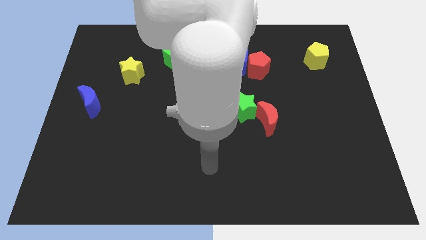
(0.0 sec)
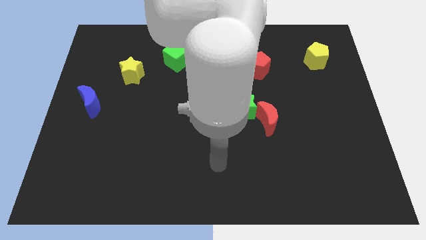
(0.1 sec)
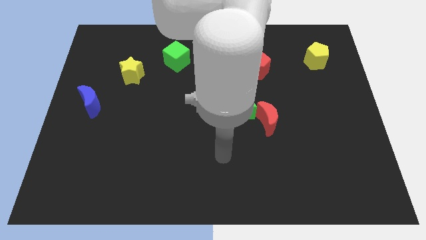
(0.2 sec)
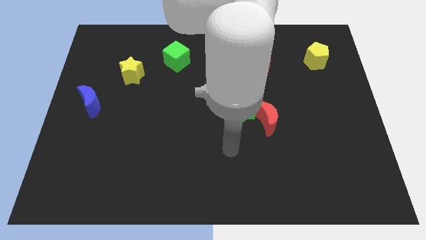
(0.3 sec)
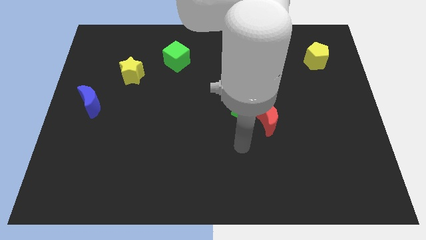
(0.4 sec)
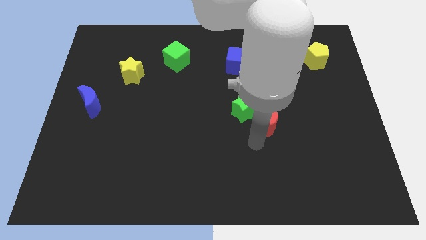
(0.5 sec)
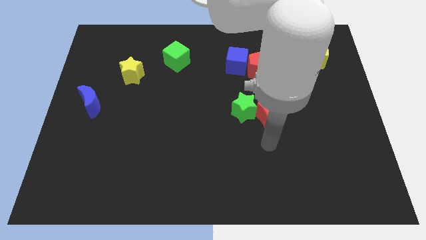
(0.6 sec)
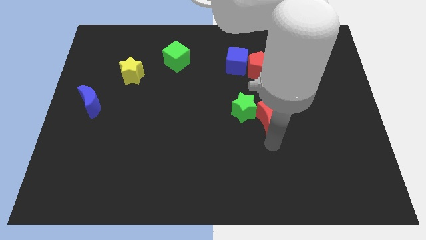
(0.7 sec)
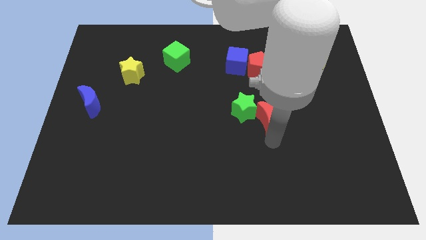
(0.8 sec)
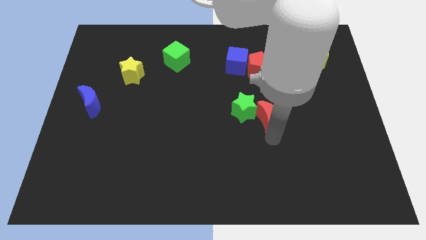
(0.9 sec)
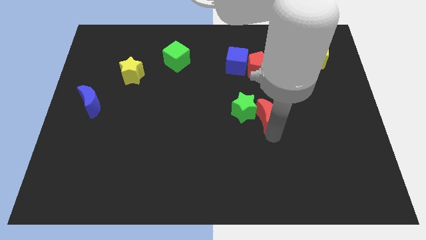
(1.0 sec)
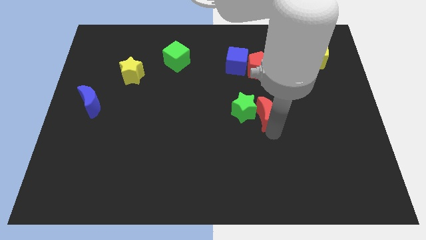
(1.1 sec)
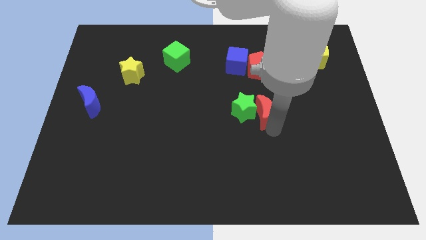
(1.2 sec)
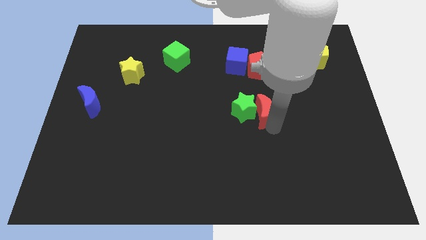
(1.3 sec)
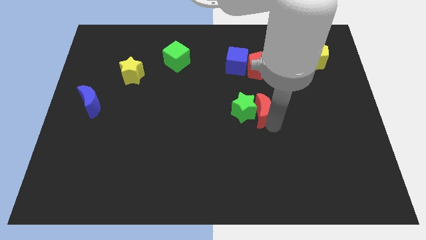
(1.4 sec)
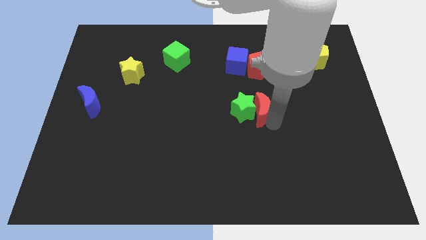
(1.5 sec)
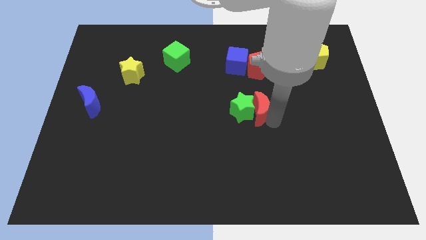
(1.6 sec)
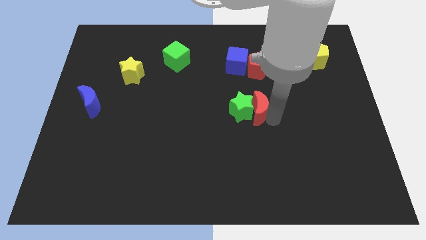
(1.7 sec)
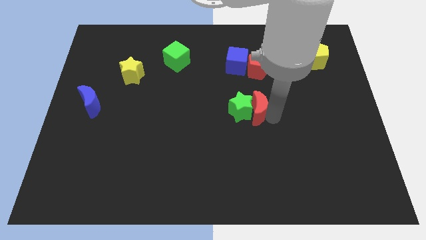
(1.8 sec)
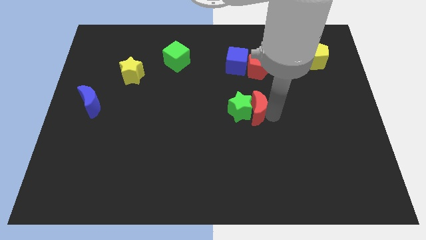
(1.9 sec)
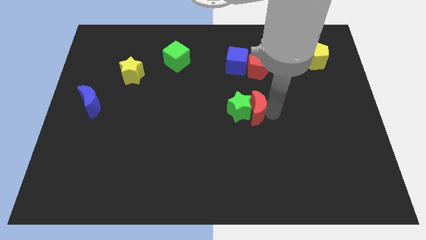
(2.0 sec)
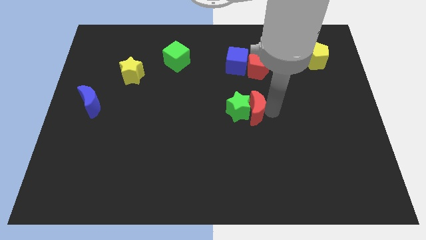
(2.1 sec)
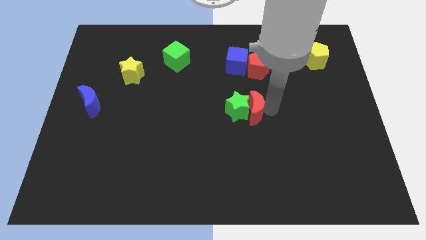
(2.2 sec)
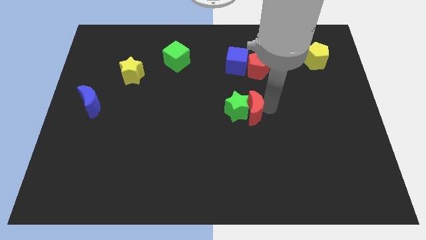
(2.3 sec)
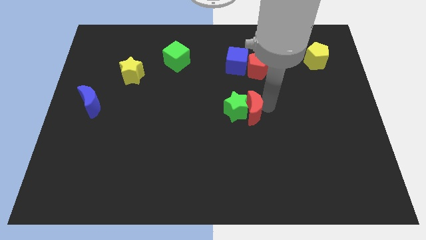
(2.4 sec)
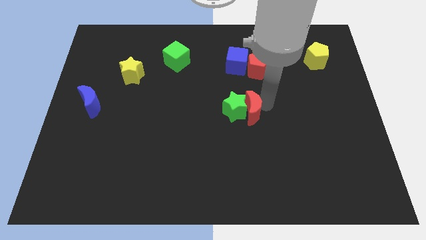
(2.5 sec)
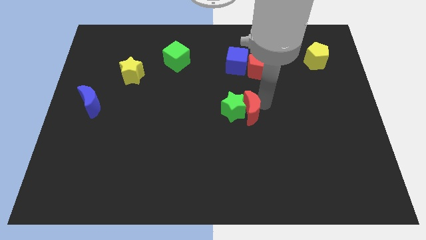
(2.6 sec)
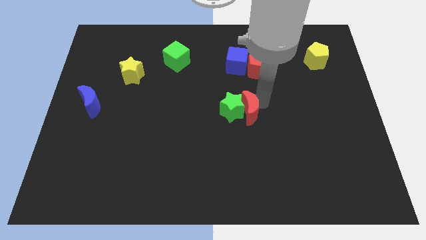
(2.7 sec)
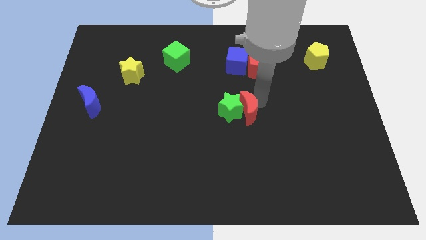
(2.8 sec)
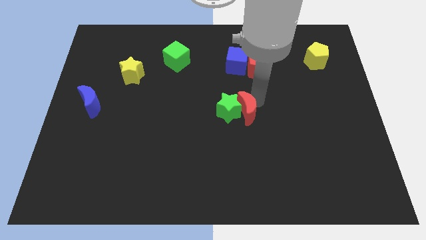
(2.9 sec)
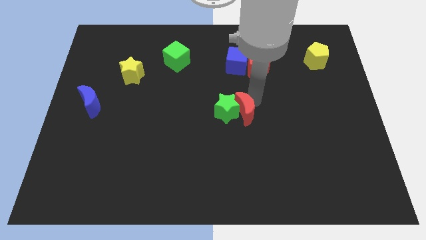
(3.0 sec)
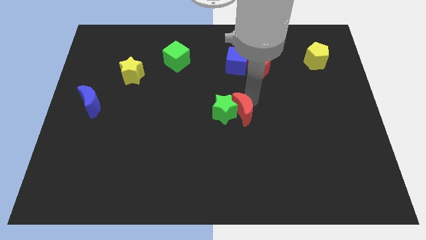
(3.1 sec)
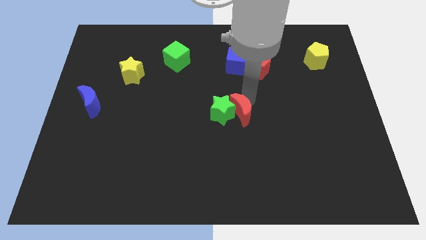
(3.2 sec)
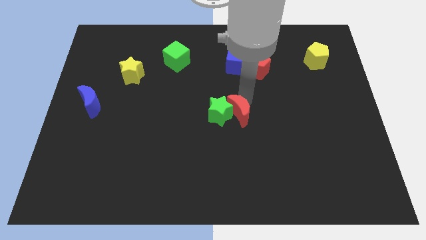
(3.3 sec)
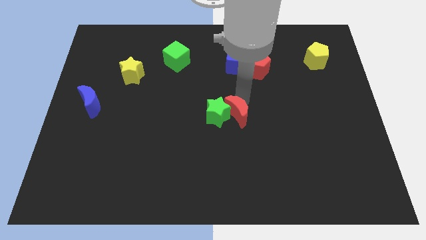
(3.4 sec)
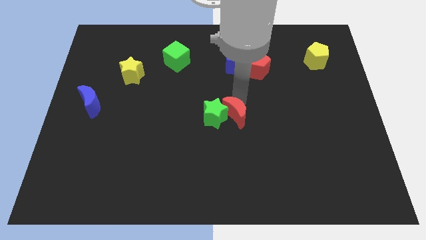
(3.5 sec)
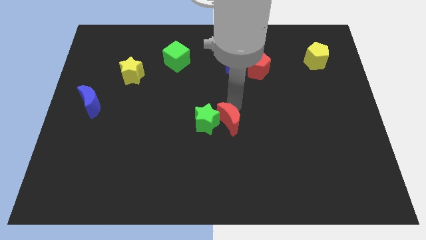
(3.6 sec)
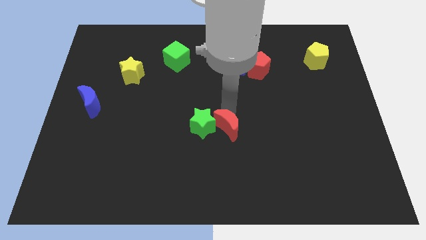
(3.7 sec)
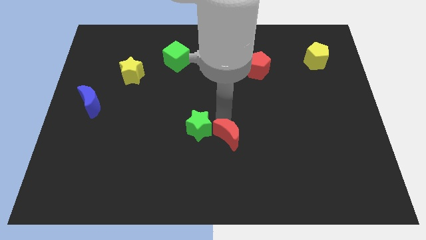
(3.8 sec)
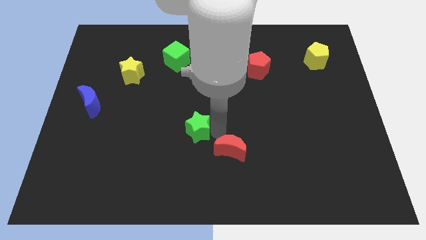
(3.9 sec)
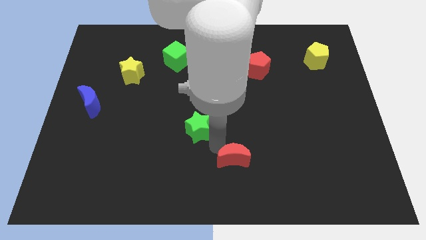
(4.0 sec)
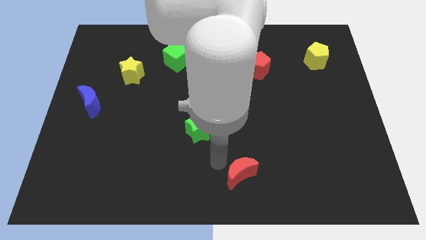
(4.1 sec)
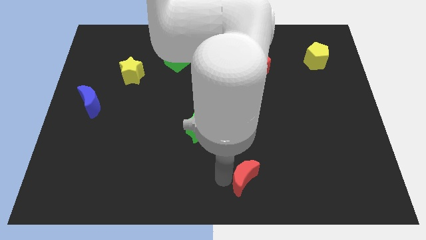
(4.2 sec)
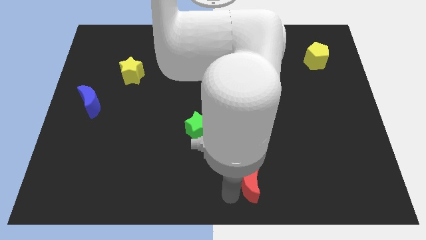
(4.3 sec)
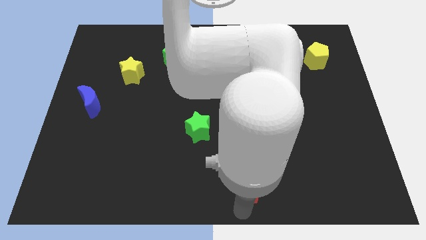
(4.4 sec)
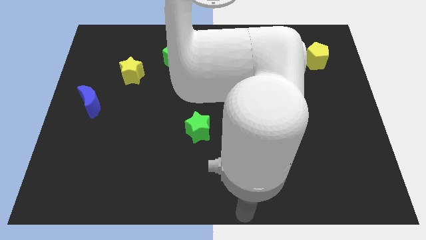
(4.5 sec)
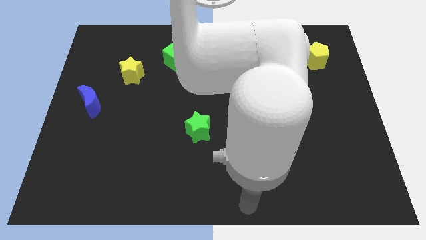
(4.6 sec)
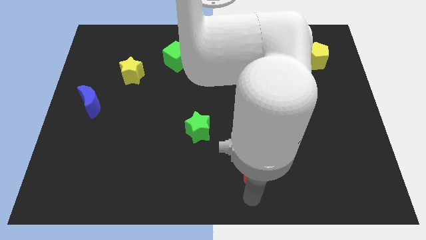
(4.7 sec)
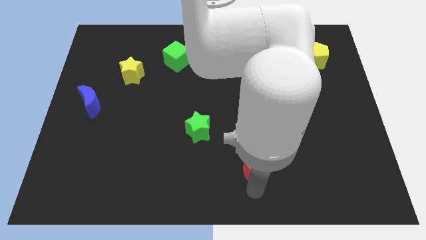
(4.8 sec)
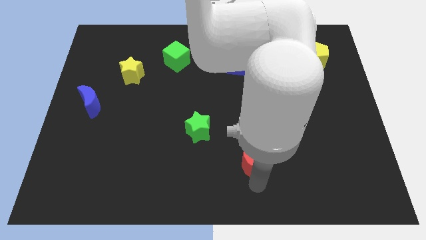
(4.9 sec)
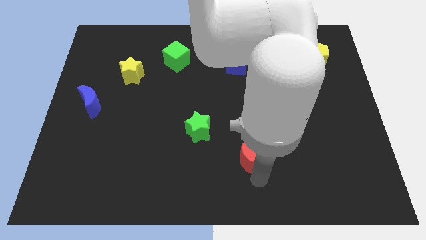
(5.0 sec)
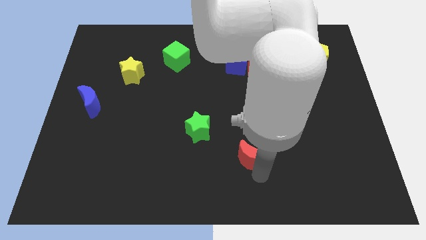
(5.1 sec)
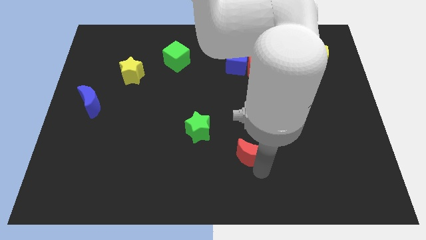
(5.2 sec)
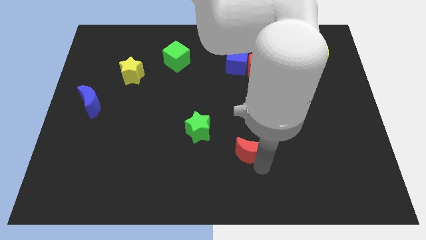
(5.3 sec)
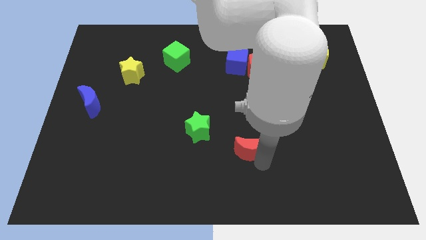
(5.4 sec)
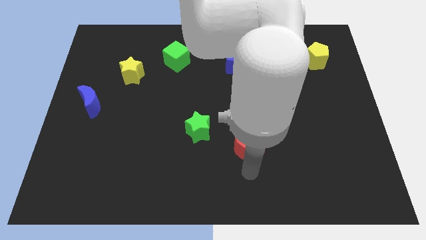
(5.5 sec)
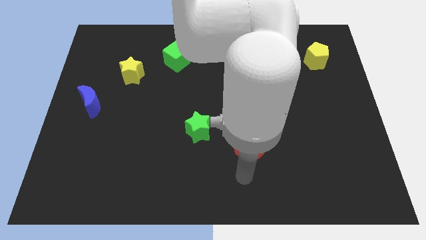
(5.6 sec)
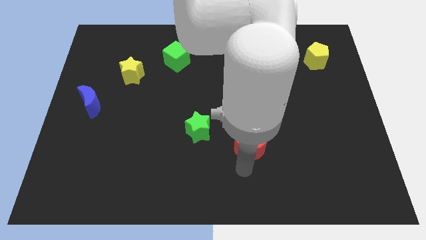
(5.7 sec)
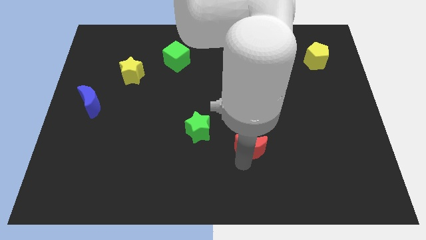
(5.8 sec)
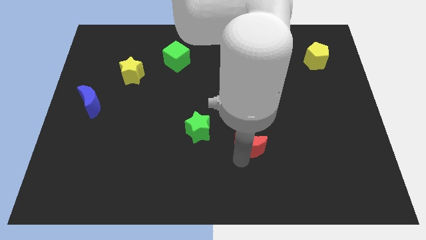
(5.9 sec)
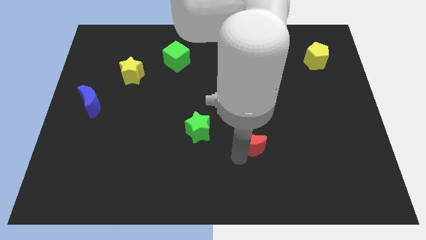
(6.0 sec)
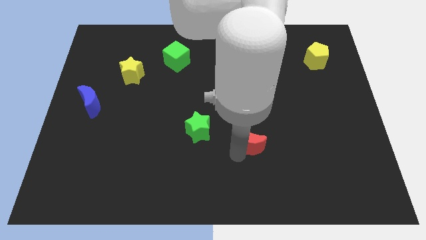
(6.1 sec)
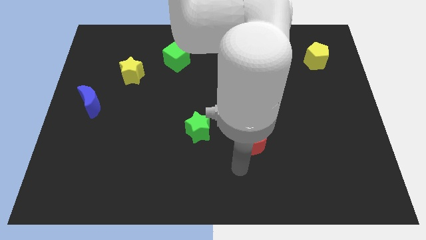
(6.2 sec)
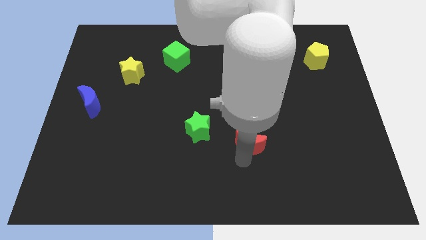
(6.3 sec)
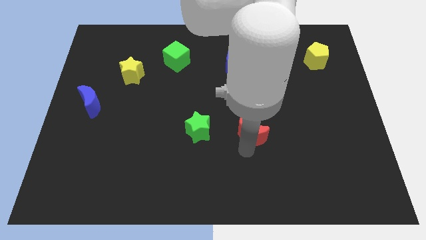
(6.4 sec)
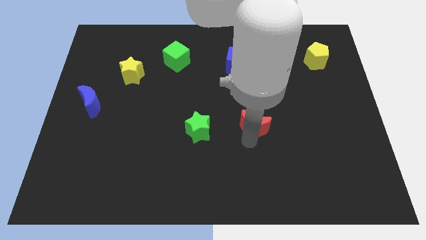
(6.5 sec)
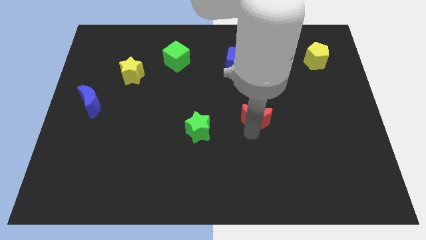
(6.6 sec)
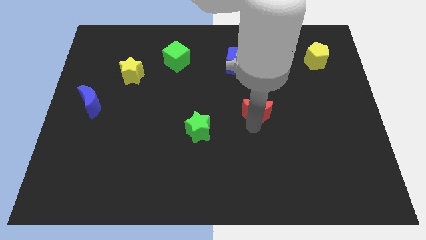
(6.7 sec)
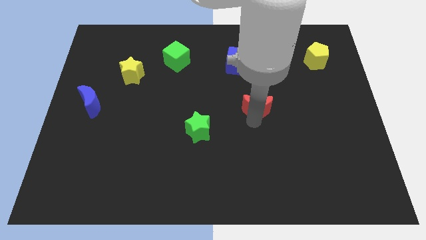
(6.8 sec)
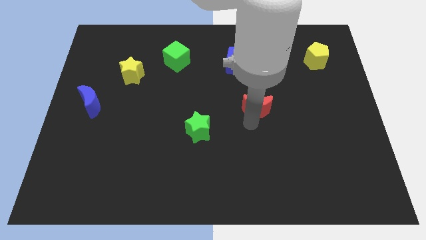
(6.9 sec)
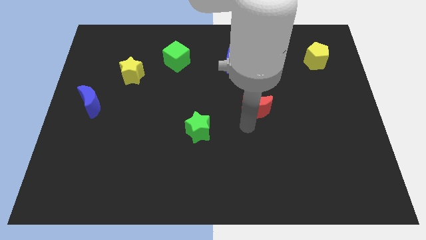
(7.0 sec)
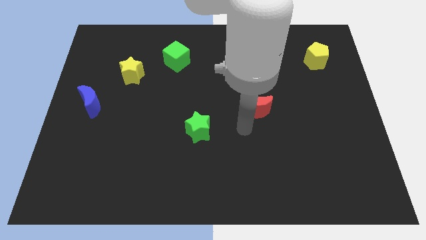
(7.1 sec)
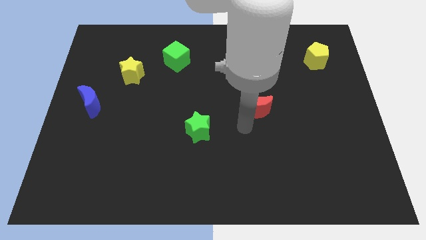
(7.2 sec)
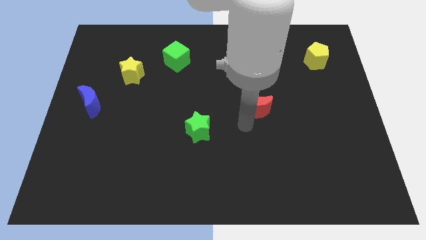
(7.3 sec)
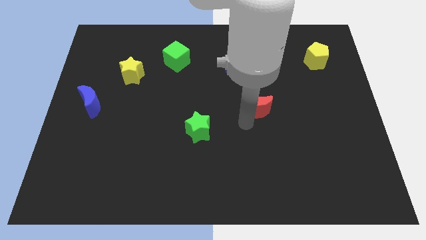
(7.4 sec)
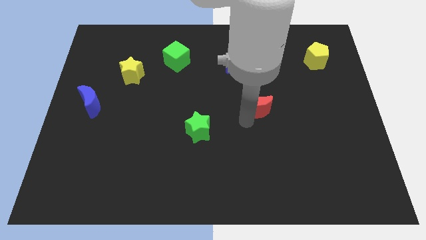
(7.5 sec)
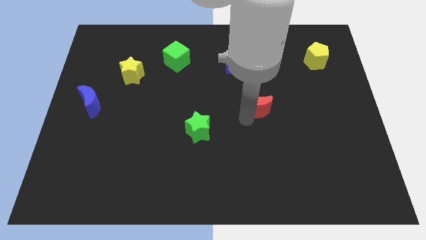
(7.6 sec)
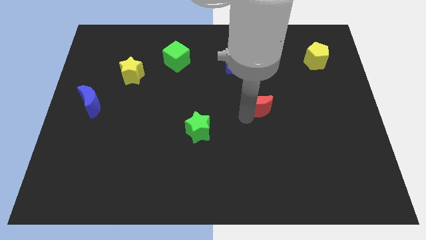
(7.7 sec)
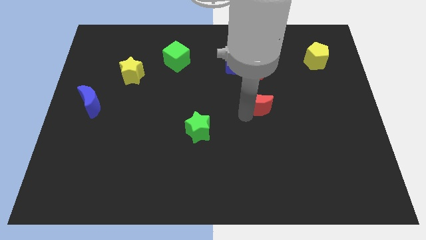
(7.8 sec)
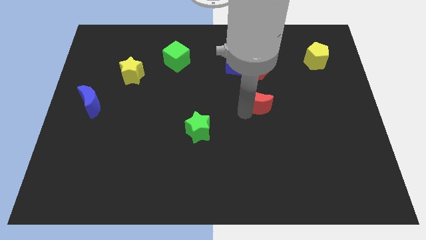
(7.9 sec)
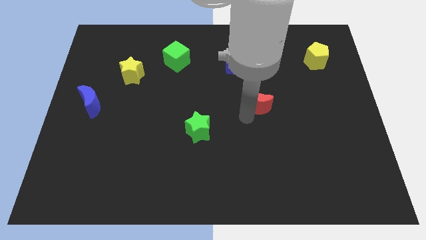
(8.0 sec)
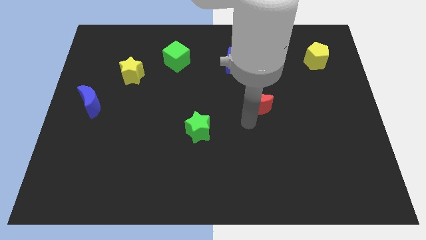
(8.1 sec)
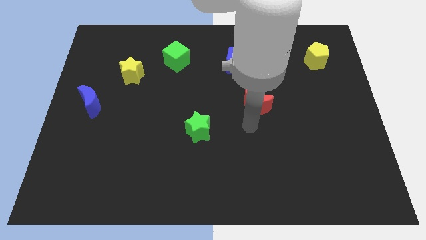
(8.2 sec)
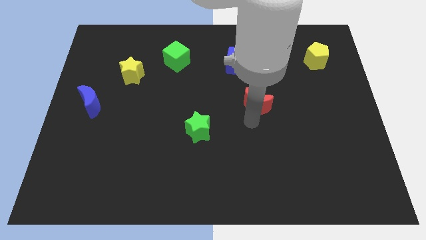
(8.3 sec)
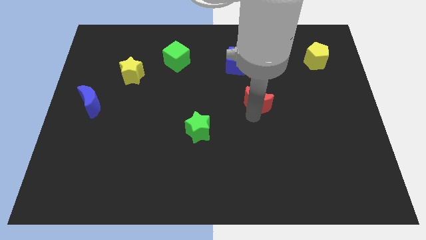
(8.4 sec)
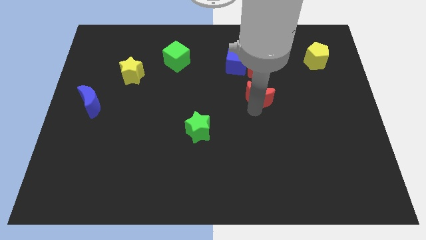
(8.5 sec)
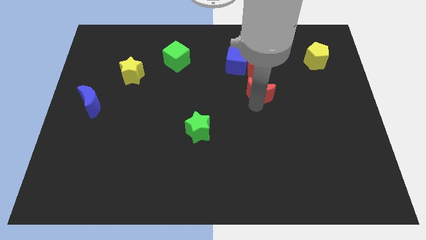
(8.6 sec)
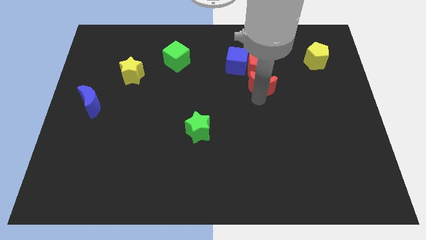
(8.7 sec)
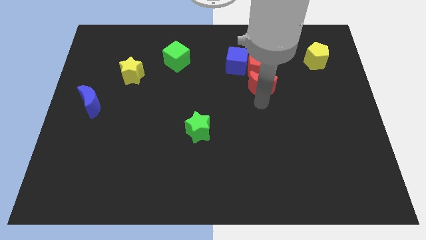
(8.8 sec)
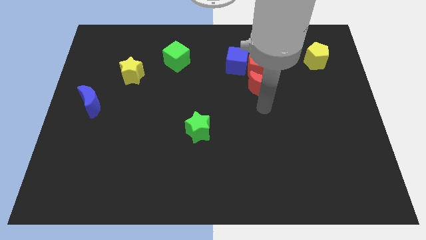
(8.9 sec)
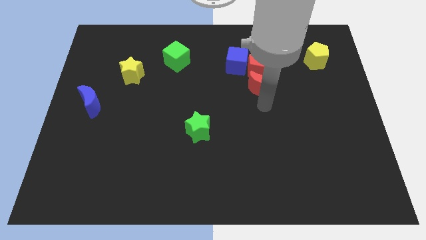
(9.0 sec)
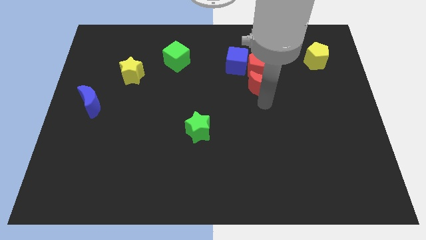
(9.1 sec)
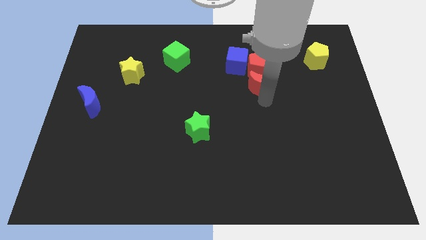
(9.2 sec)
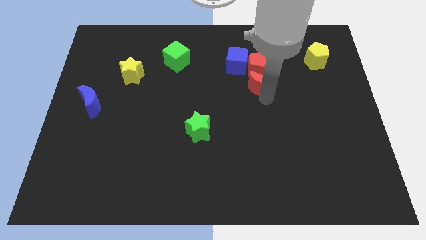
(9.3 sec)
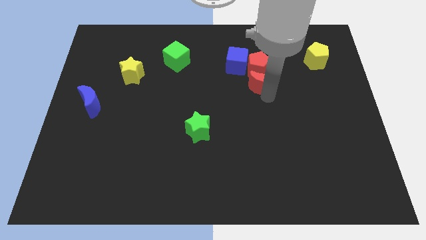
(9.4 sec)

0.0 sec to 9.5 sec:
slide the red moon next to the red pentagon
